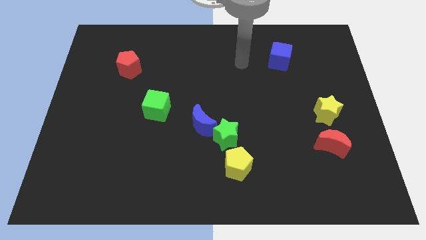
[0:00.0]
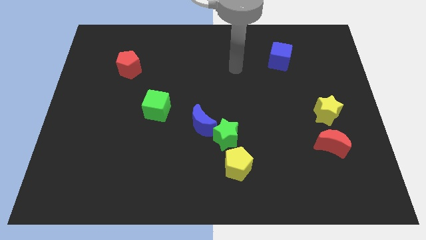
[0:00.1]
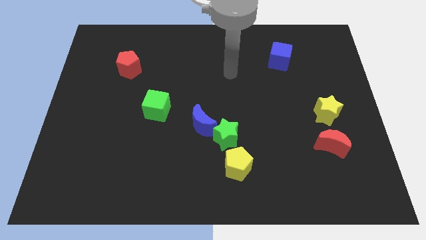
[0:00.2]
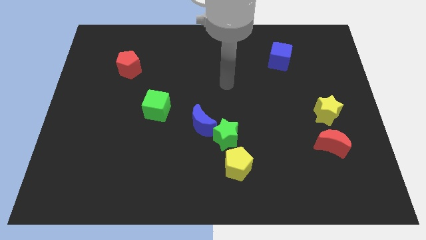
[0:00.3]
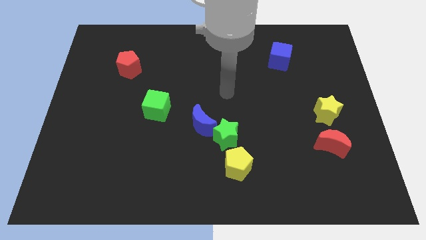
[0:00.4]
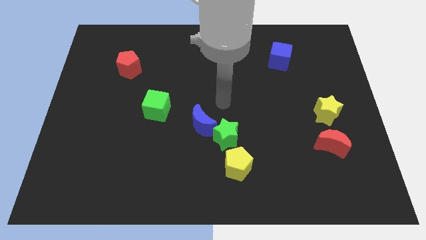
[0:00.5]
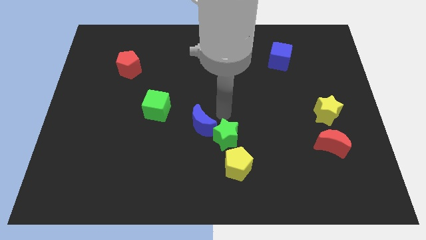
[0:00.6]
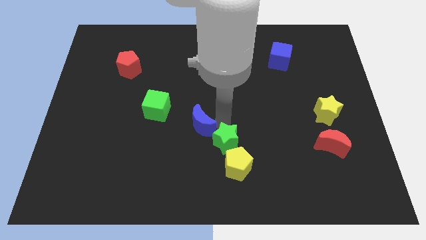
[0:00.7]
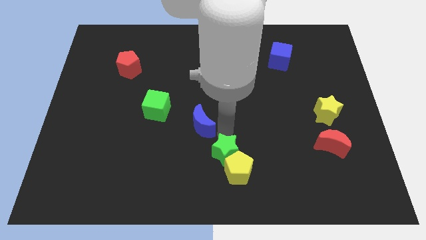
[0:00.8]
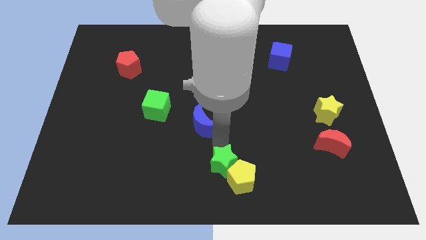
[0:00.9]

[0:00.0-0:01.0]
pull the blue moon apart from the green star

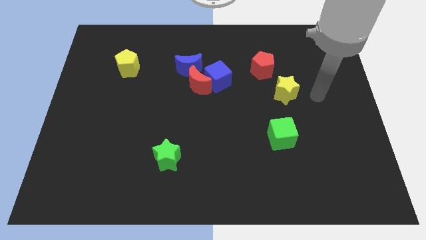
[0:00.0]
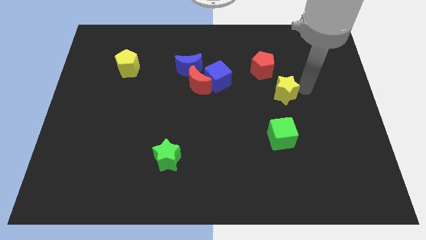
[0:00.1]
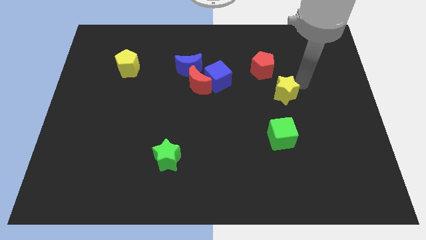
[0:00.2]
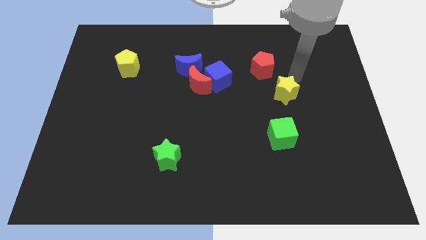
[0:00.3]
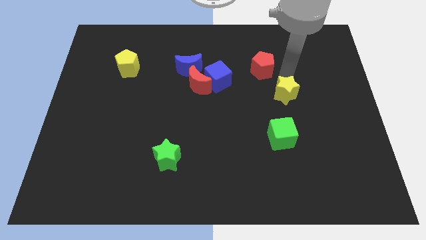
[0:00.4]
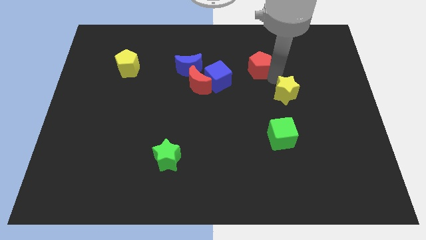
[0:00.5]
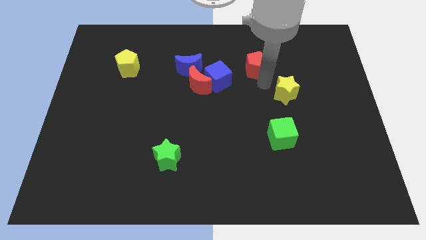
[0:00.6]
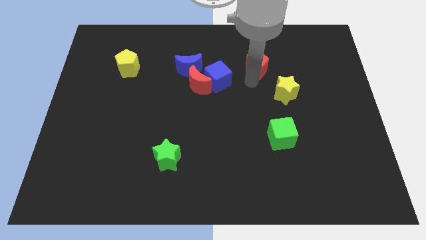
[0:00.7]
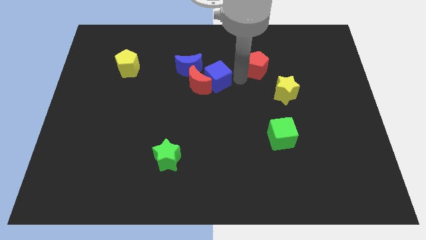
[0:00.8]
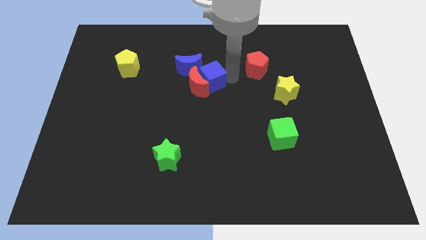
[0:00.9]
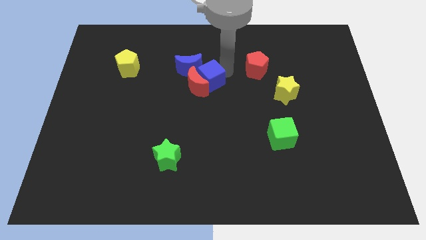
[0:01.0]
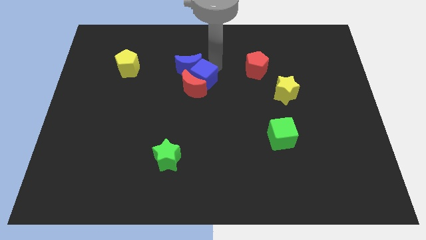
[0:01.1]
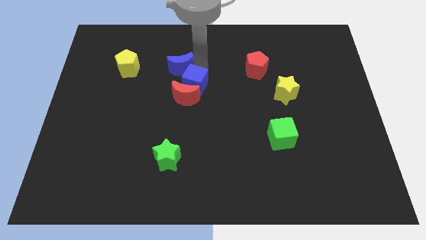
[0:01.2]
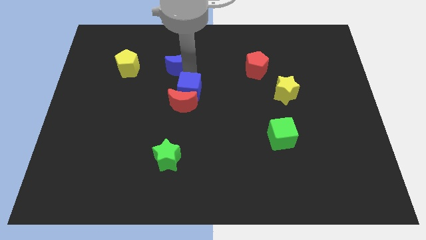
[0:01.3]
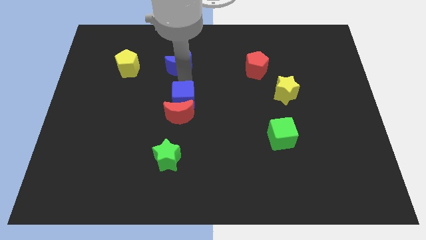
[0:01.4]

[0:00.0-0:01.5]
move the red moon away from the blue cube and blue moon

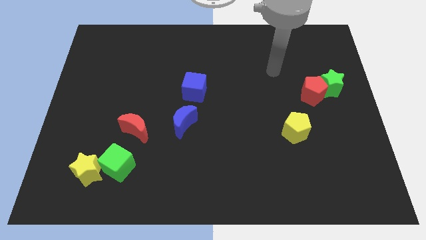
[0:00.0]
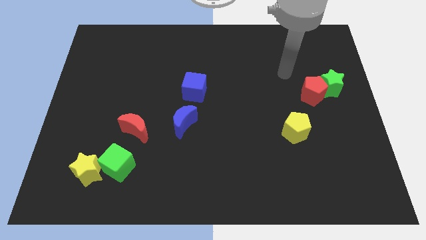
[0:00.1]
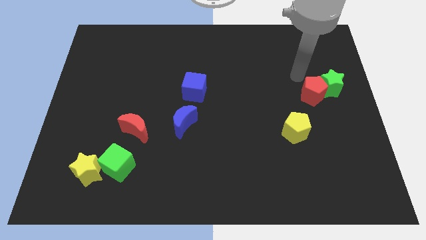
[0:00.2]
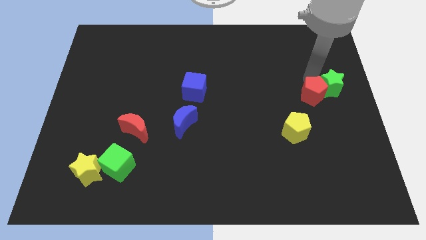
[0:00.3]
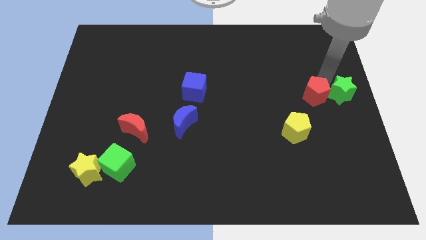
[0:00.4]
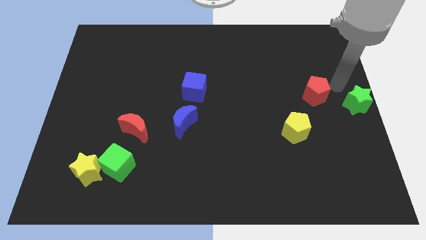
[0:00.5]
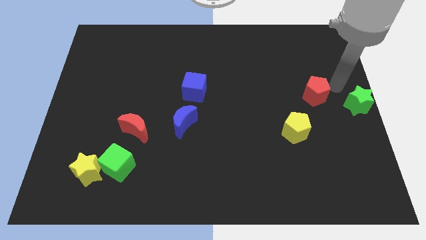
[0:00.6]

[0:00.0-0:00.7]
separate the red pentagon from the green star

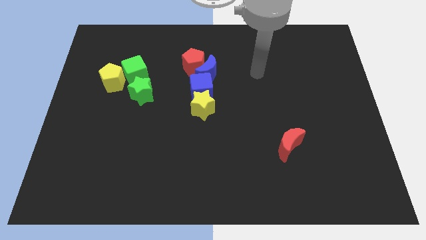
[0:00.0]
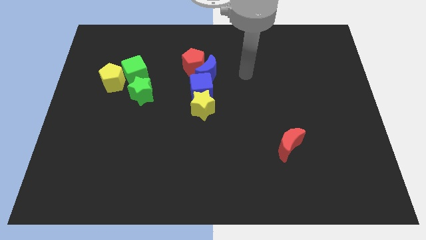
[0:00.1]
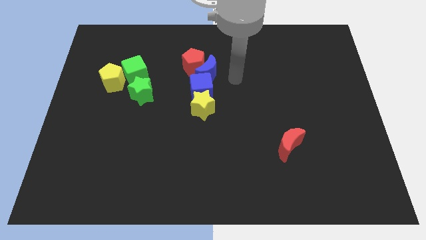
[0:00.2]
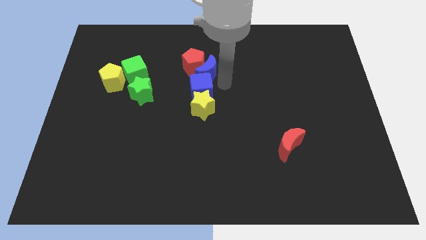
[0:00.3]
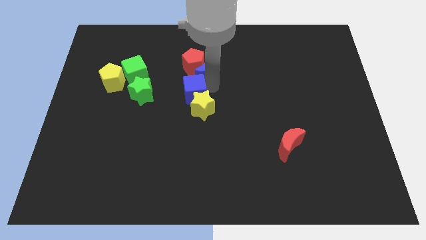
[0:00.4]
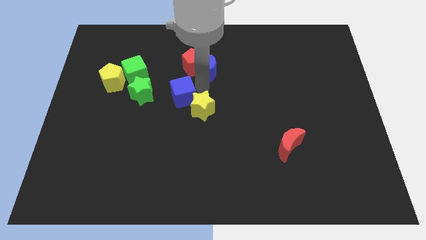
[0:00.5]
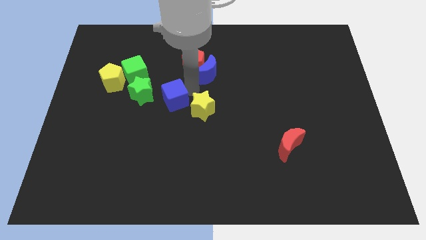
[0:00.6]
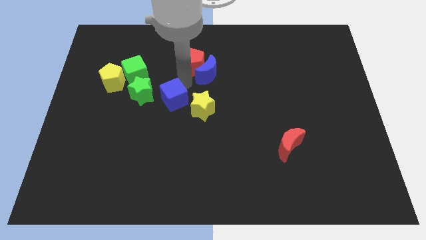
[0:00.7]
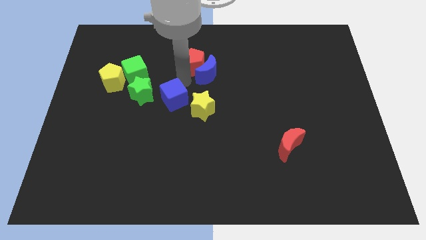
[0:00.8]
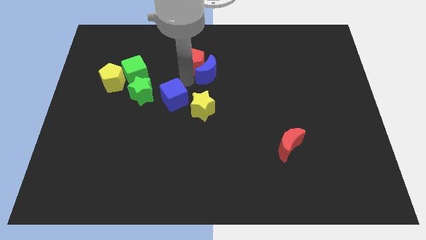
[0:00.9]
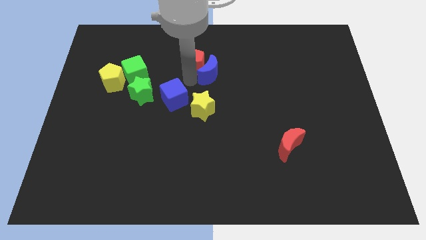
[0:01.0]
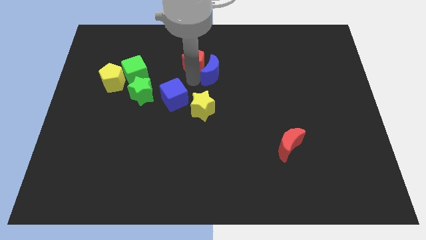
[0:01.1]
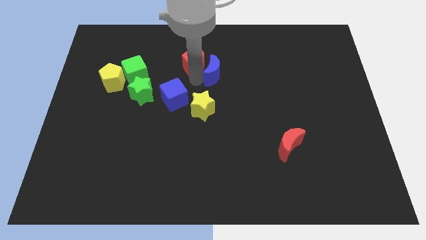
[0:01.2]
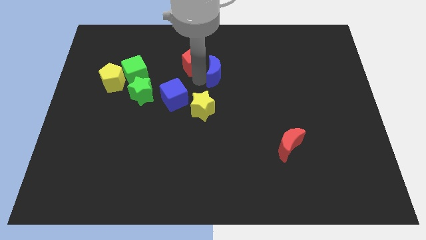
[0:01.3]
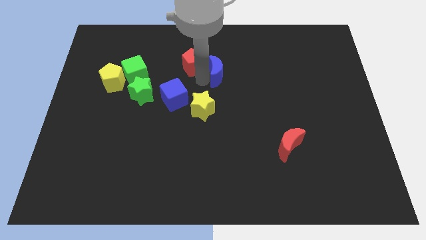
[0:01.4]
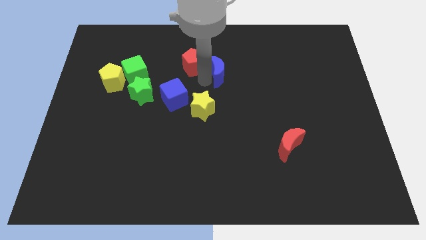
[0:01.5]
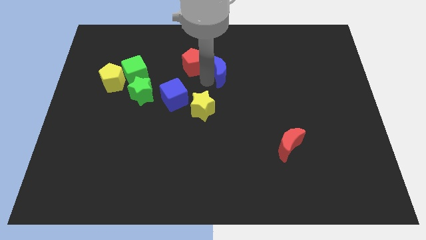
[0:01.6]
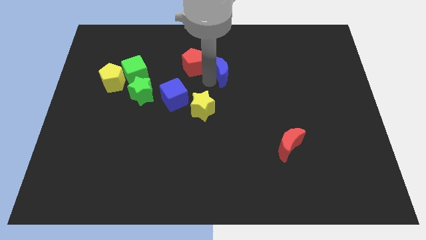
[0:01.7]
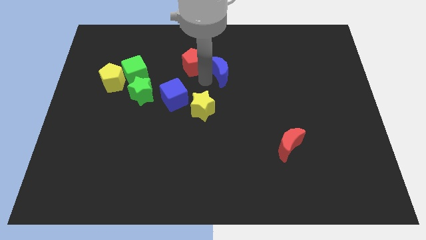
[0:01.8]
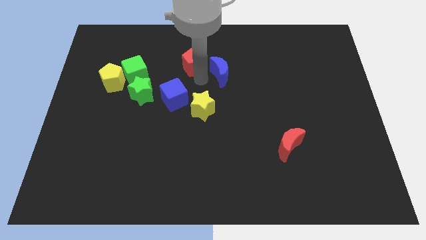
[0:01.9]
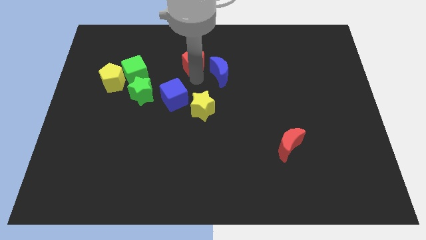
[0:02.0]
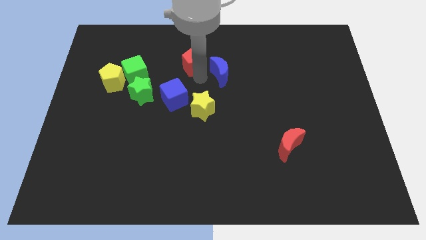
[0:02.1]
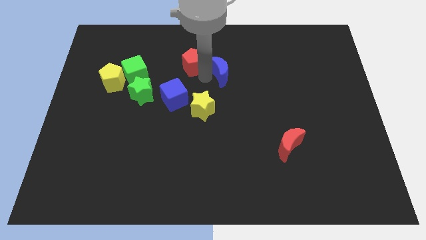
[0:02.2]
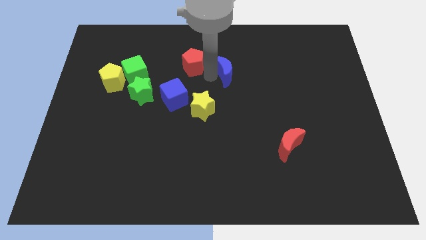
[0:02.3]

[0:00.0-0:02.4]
separate the blue moon from the red pentagon and blue cube

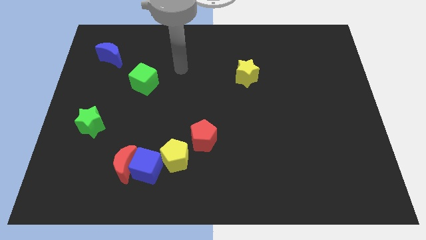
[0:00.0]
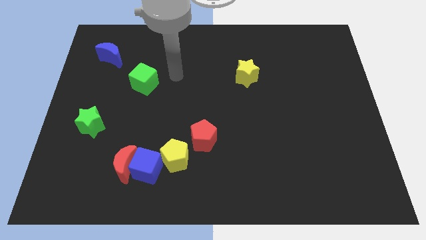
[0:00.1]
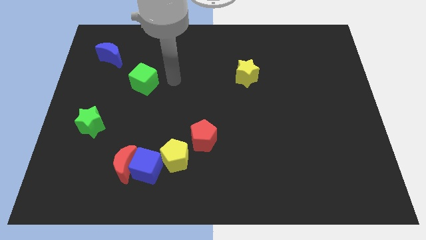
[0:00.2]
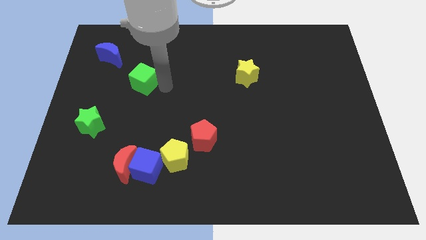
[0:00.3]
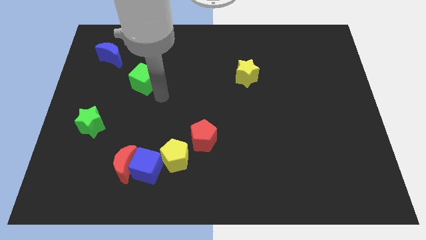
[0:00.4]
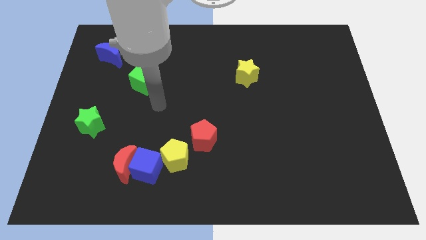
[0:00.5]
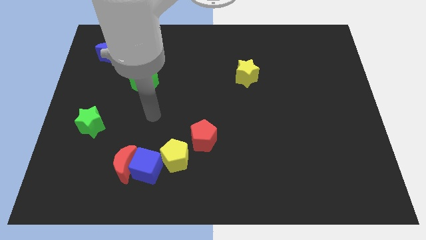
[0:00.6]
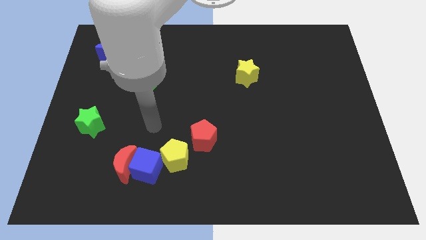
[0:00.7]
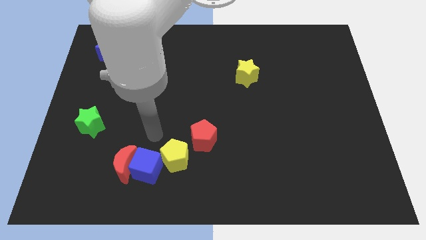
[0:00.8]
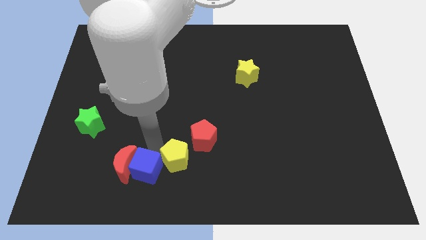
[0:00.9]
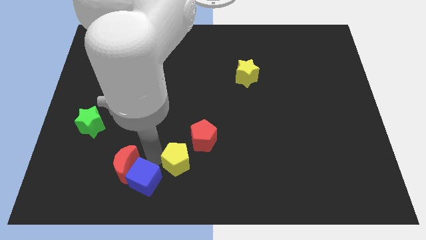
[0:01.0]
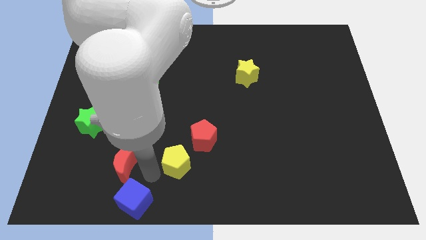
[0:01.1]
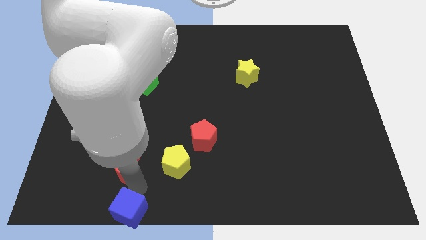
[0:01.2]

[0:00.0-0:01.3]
pull the red moon apart from the blue cube

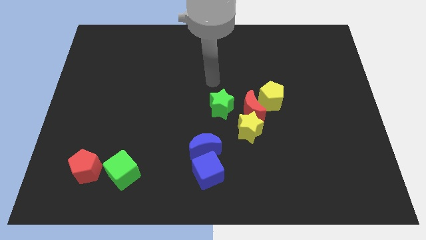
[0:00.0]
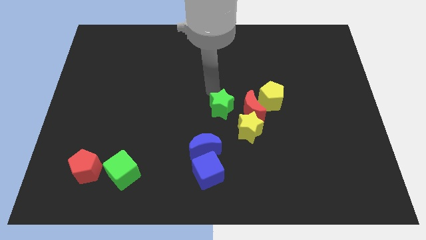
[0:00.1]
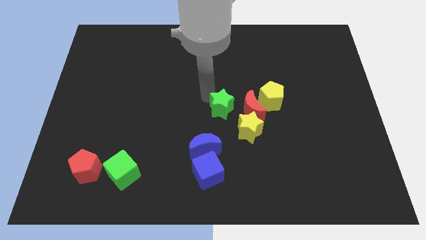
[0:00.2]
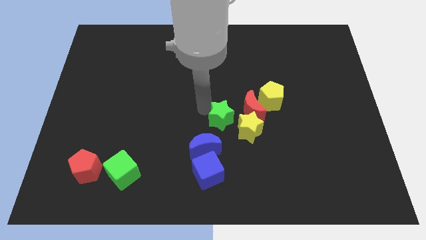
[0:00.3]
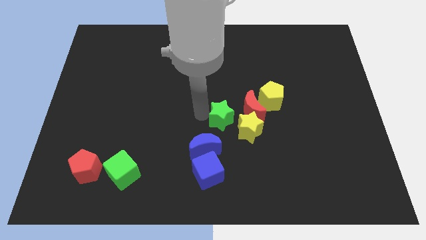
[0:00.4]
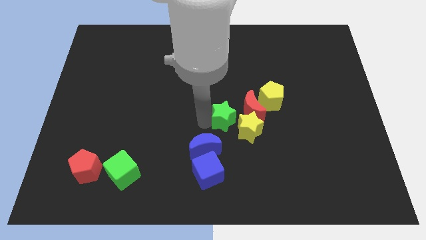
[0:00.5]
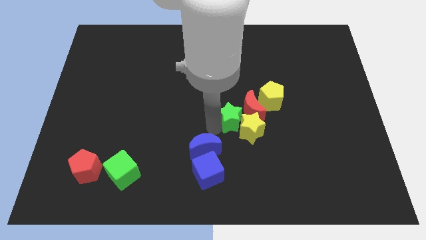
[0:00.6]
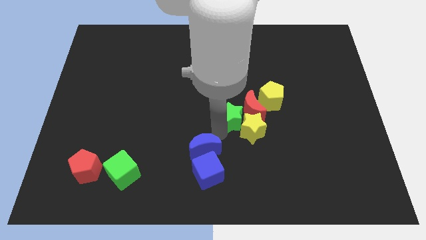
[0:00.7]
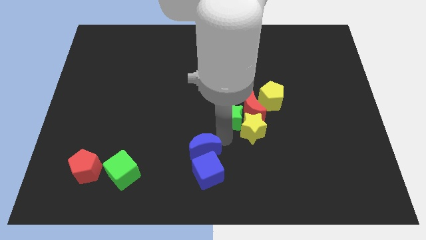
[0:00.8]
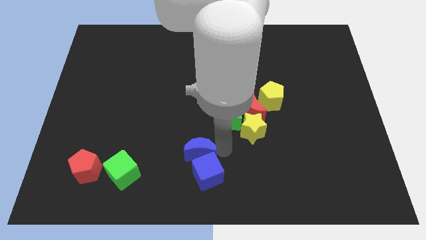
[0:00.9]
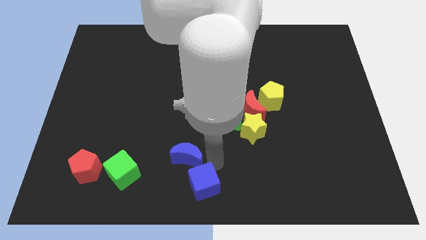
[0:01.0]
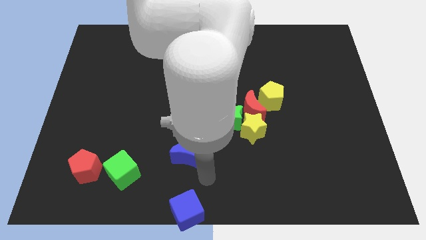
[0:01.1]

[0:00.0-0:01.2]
pull the blue moon apart from the blue cube

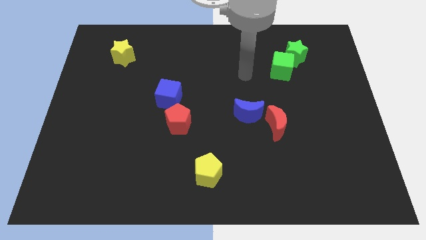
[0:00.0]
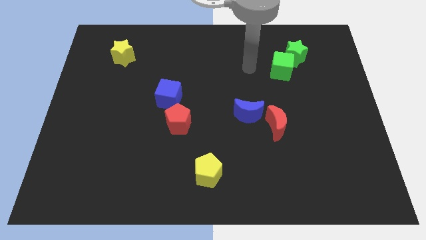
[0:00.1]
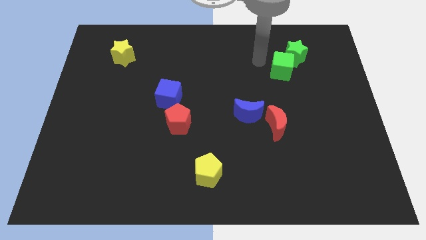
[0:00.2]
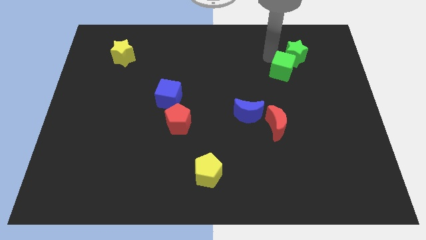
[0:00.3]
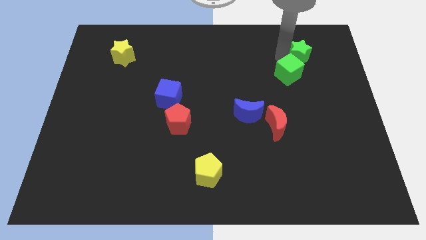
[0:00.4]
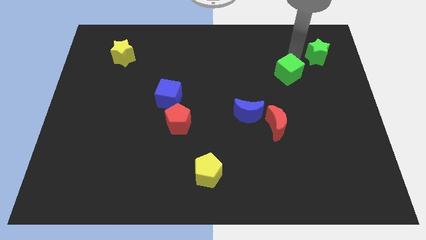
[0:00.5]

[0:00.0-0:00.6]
separate the green cube from the green star

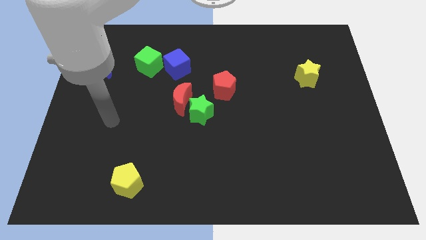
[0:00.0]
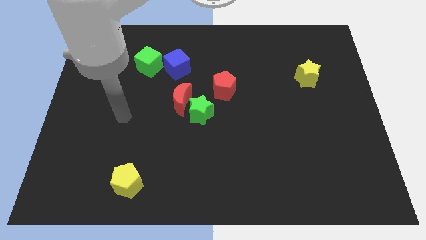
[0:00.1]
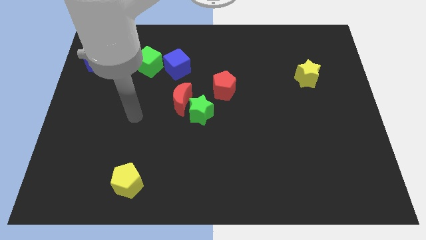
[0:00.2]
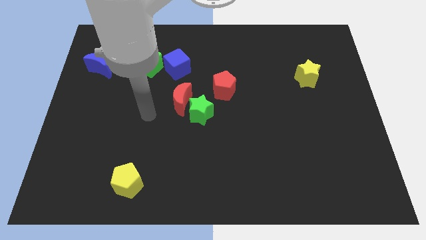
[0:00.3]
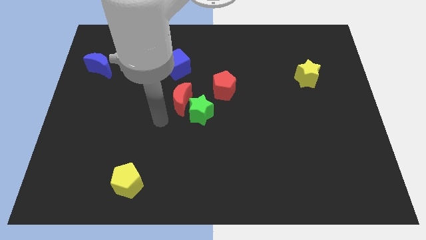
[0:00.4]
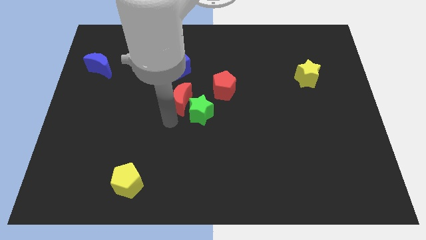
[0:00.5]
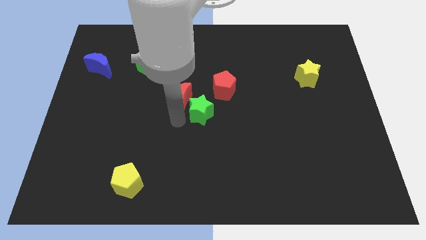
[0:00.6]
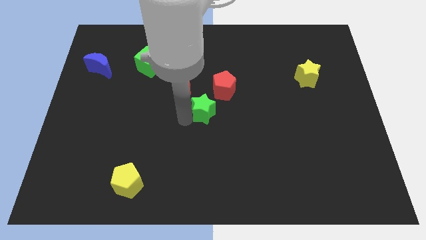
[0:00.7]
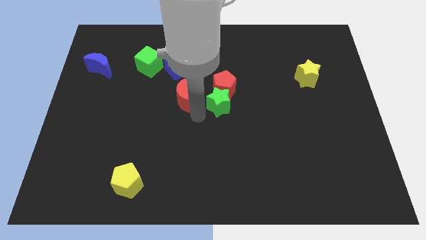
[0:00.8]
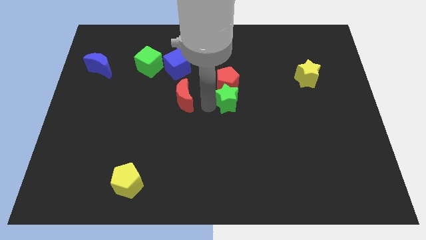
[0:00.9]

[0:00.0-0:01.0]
move the red moon away from the green star
